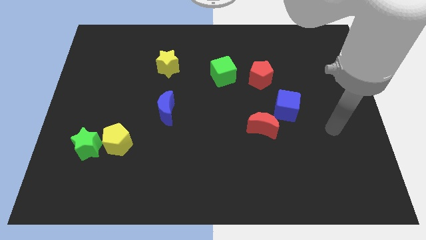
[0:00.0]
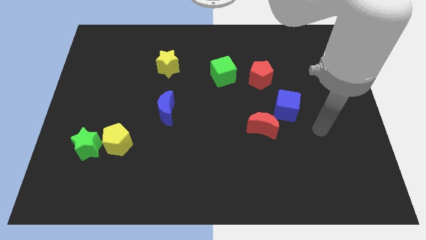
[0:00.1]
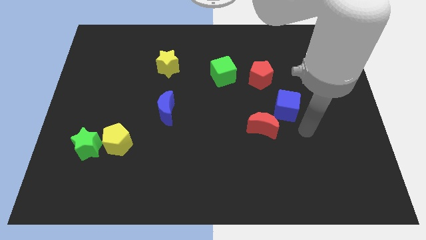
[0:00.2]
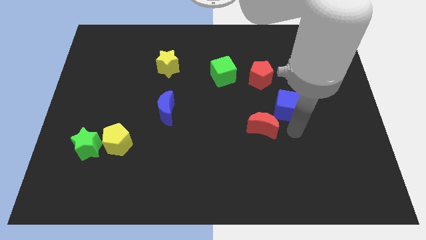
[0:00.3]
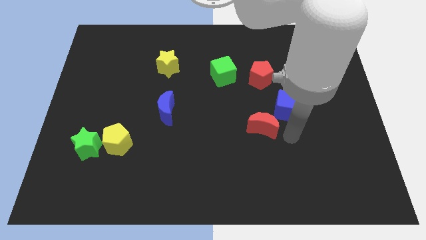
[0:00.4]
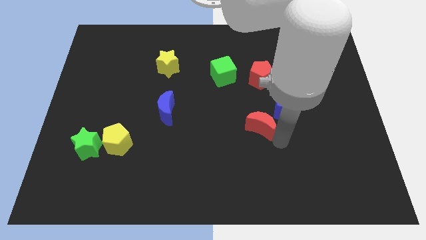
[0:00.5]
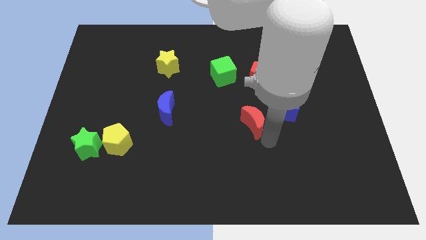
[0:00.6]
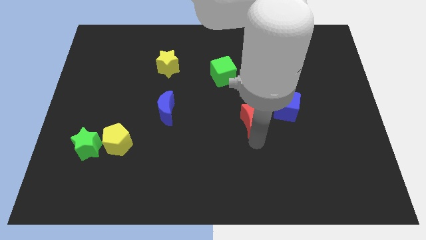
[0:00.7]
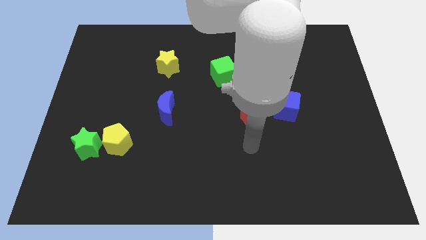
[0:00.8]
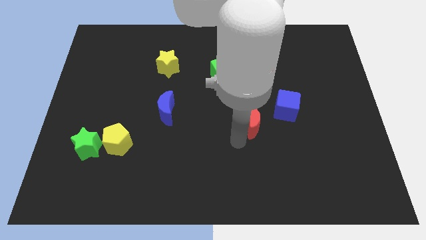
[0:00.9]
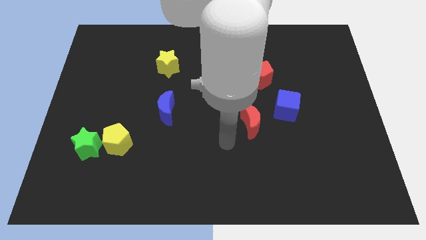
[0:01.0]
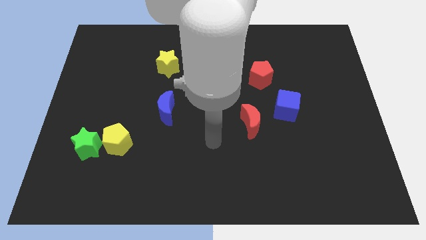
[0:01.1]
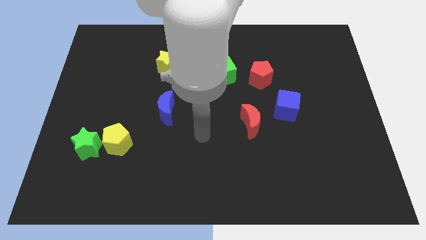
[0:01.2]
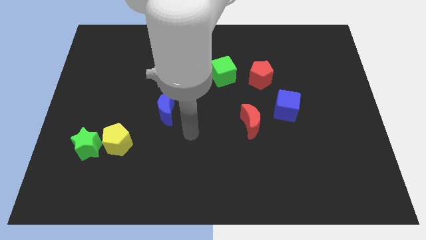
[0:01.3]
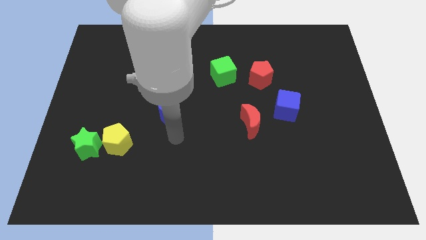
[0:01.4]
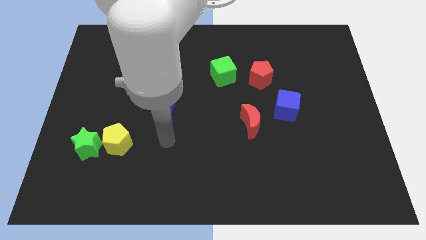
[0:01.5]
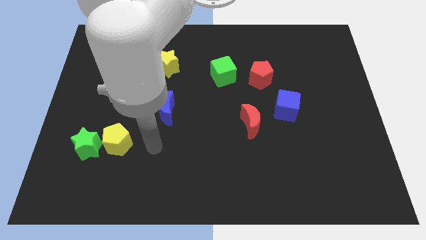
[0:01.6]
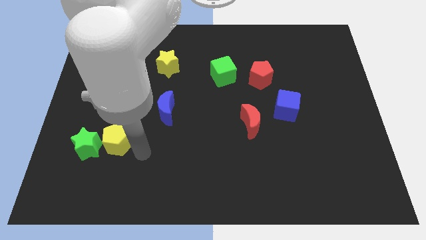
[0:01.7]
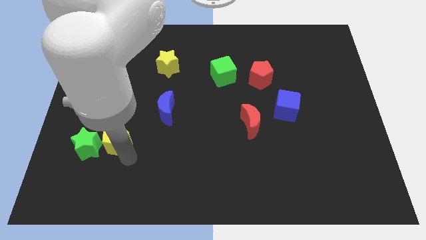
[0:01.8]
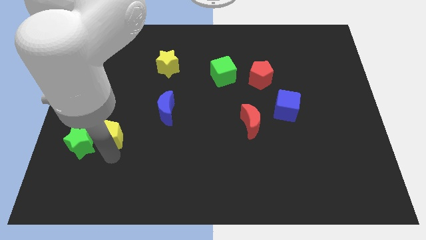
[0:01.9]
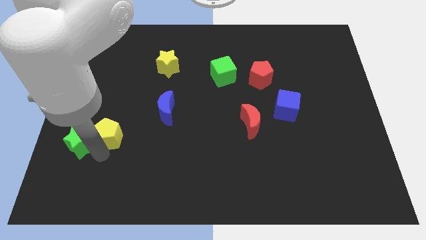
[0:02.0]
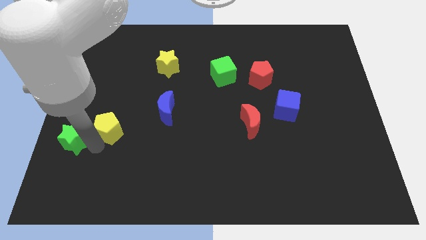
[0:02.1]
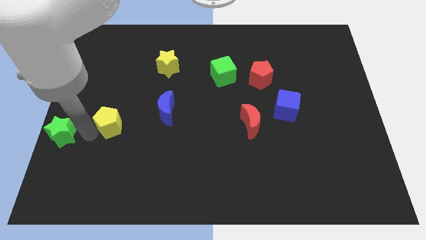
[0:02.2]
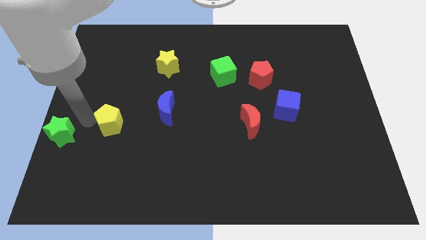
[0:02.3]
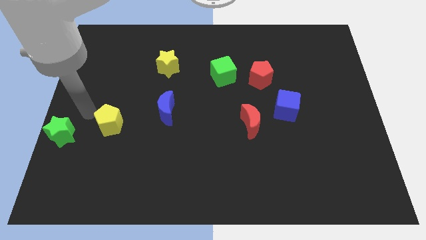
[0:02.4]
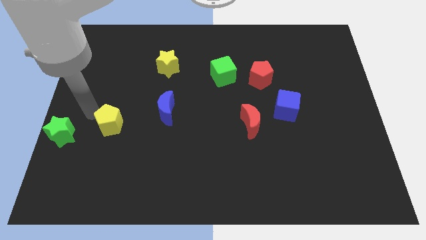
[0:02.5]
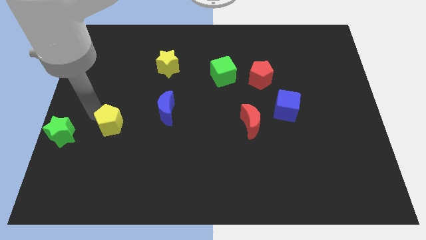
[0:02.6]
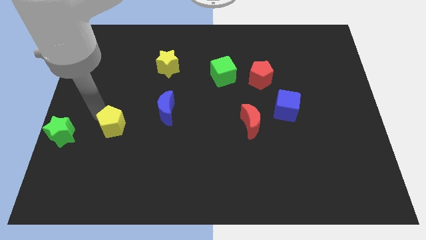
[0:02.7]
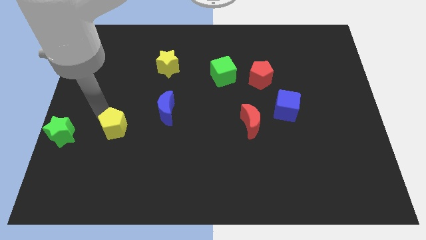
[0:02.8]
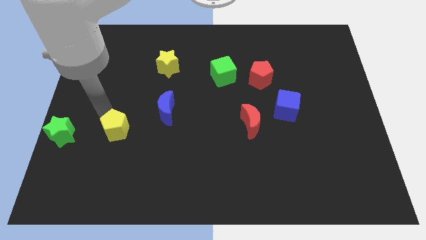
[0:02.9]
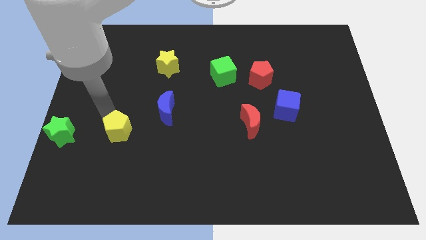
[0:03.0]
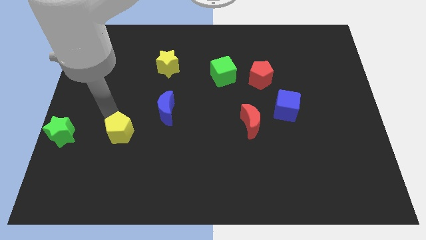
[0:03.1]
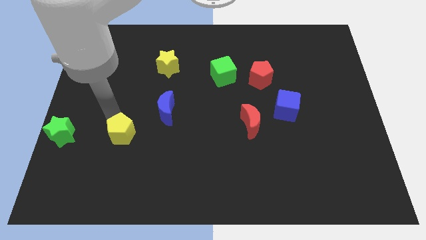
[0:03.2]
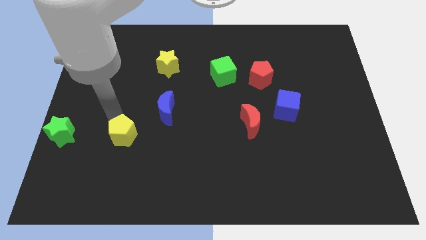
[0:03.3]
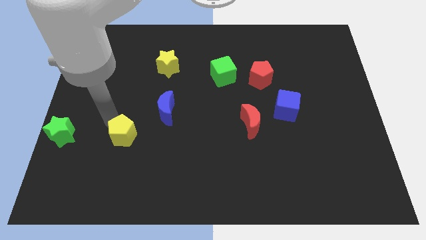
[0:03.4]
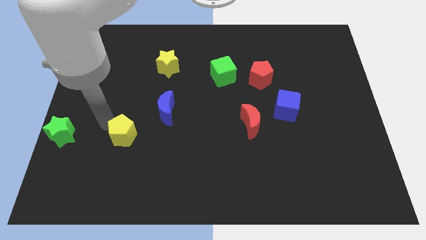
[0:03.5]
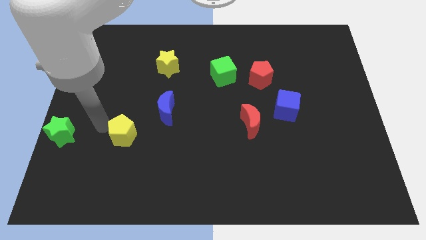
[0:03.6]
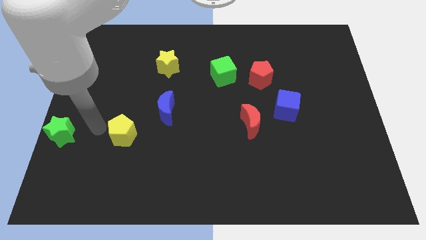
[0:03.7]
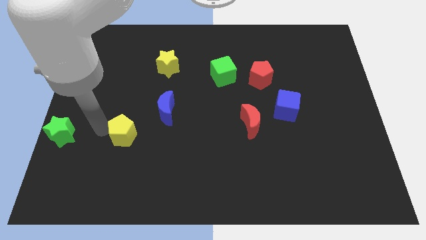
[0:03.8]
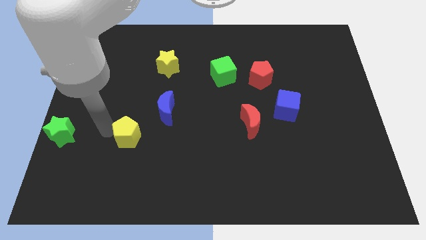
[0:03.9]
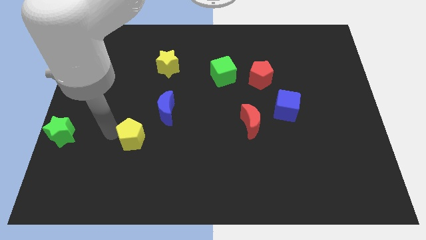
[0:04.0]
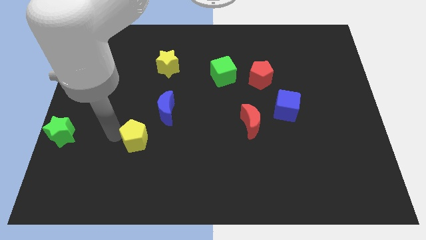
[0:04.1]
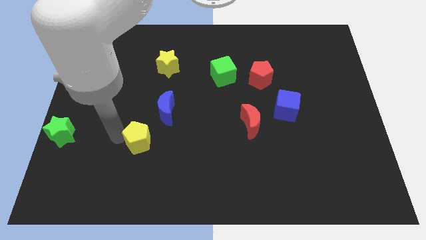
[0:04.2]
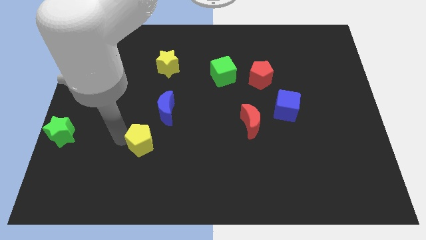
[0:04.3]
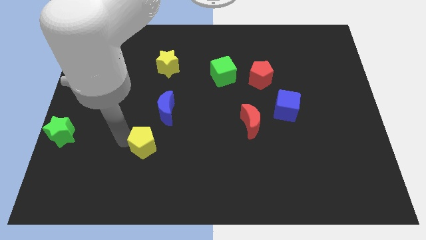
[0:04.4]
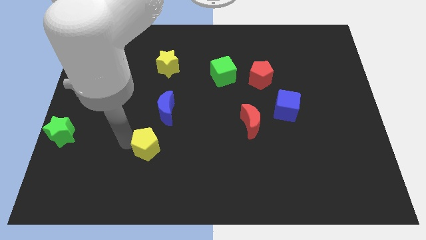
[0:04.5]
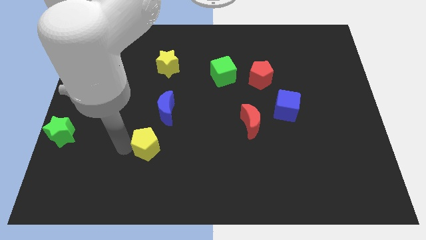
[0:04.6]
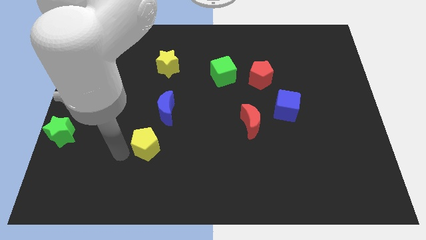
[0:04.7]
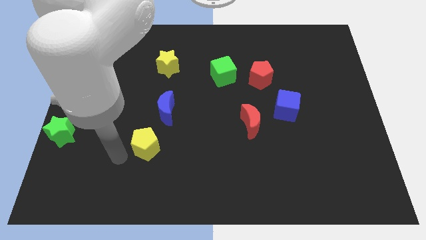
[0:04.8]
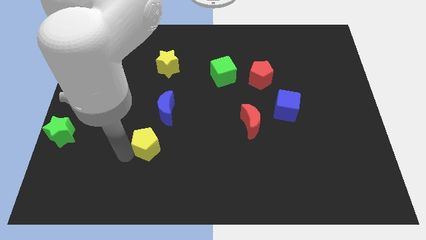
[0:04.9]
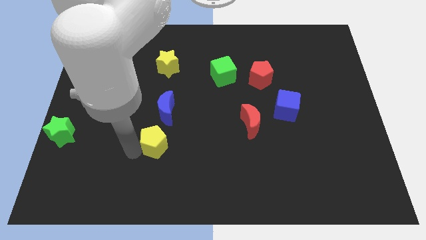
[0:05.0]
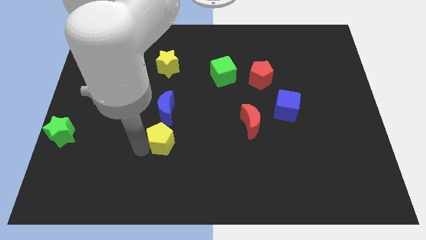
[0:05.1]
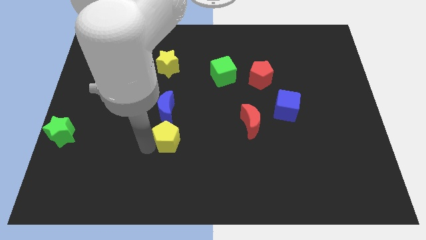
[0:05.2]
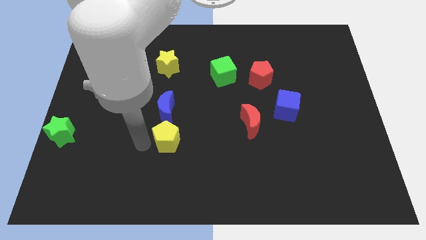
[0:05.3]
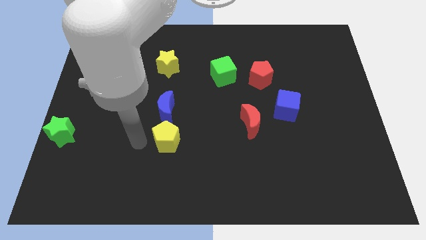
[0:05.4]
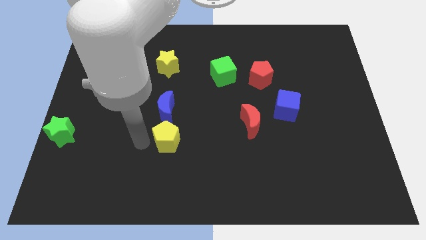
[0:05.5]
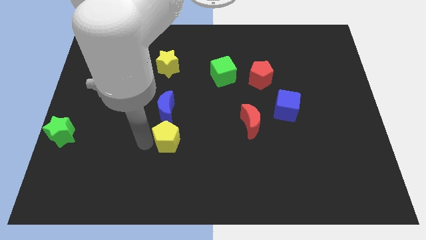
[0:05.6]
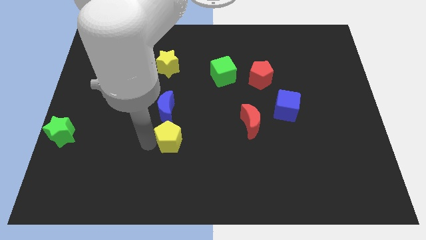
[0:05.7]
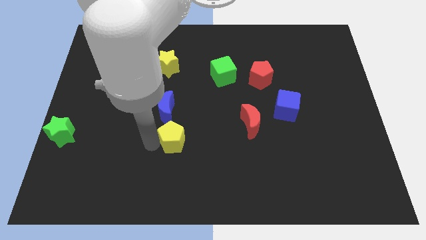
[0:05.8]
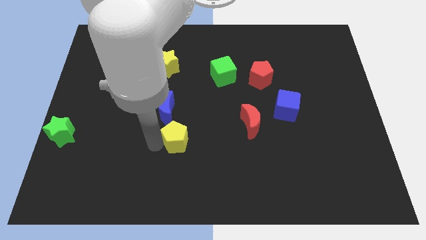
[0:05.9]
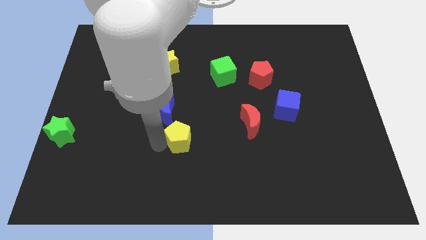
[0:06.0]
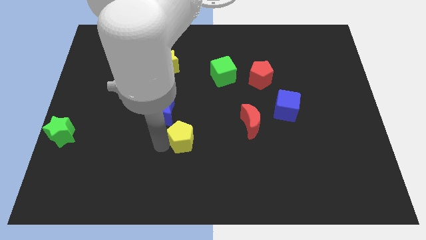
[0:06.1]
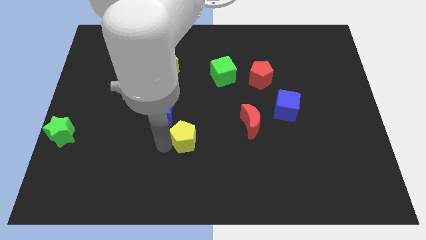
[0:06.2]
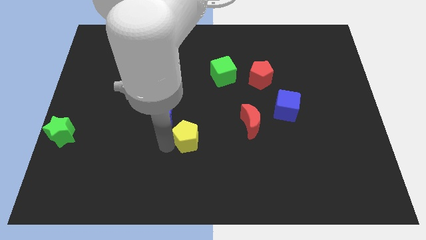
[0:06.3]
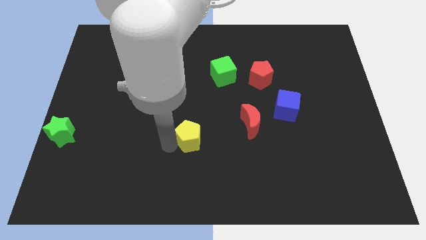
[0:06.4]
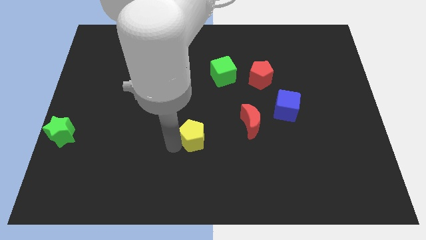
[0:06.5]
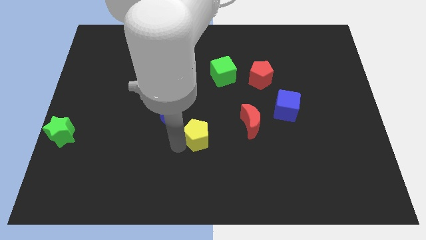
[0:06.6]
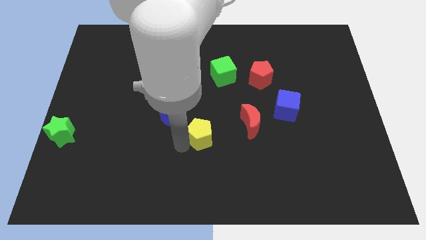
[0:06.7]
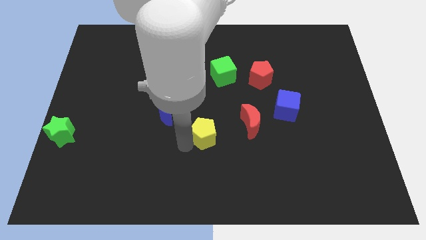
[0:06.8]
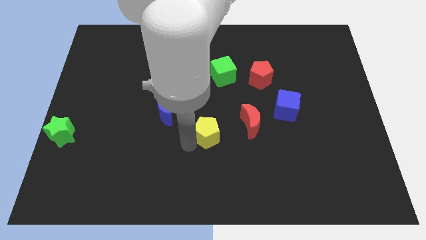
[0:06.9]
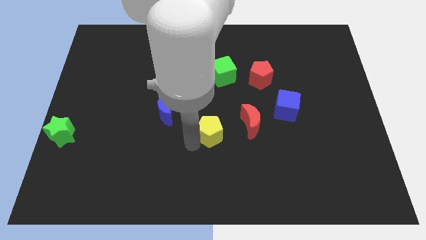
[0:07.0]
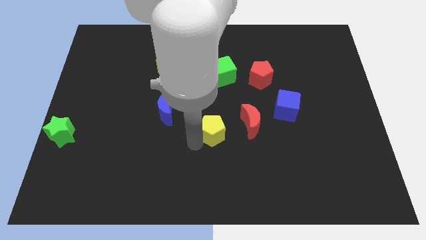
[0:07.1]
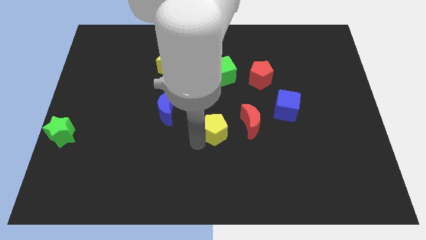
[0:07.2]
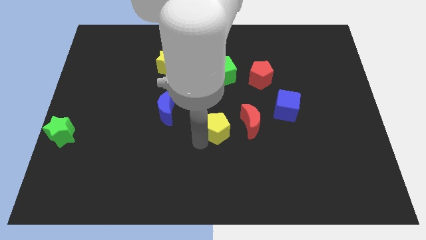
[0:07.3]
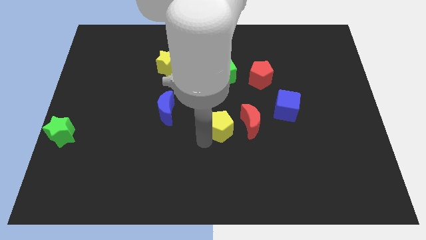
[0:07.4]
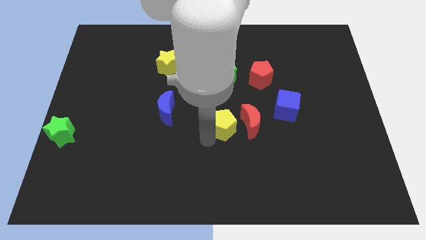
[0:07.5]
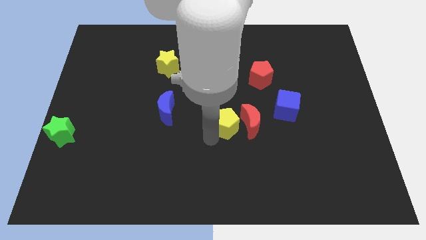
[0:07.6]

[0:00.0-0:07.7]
move the yellow pentagon to the red moon

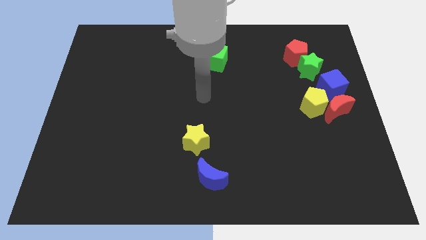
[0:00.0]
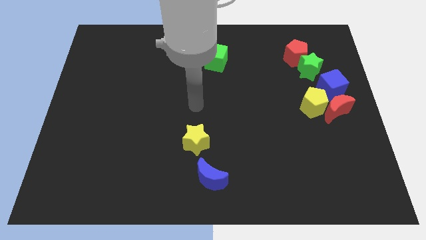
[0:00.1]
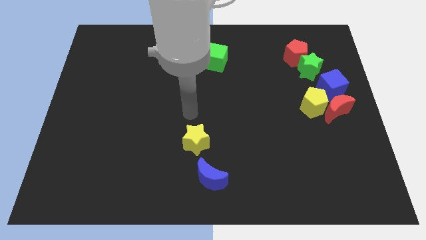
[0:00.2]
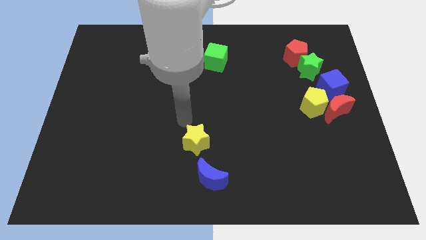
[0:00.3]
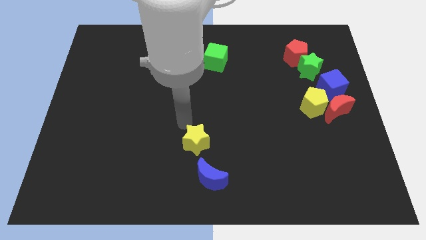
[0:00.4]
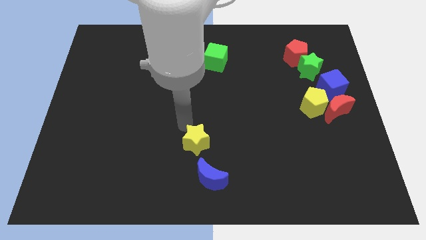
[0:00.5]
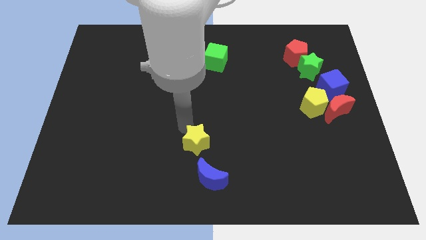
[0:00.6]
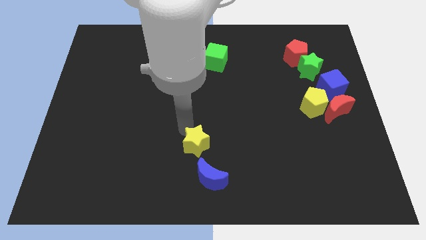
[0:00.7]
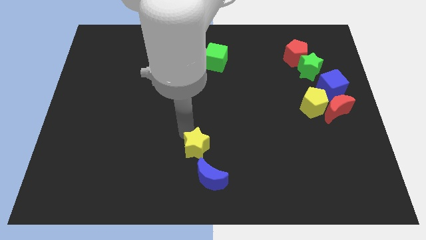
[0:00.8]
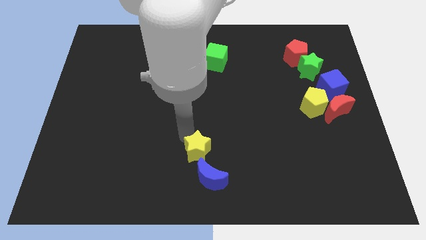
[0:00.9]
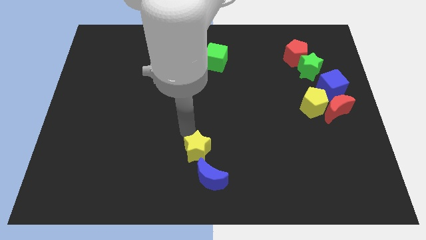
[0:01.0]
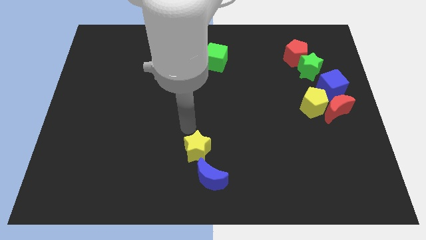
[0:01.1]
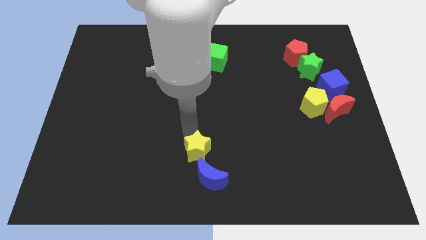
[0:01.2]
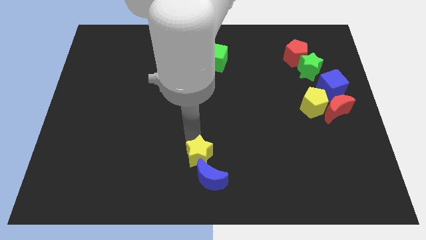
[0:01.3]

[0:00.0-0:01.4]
slide the yellow star next to the blue moon
